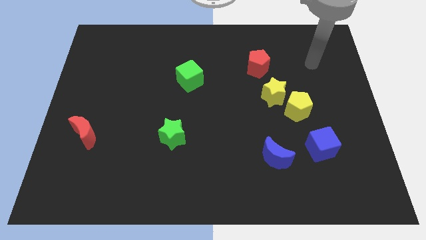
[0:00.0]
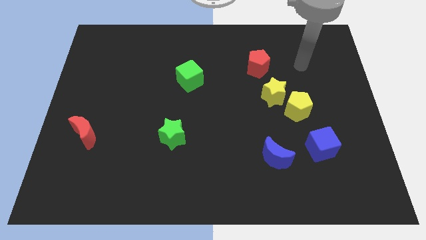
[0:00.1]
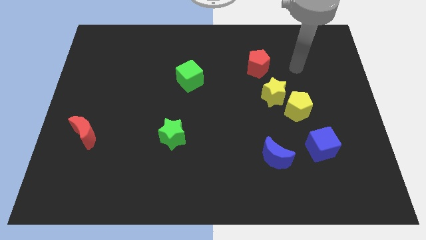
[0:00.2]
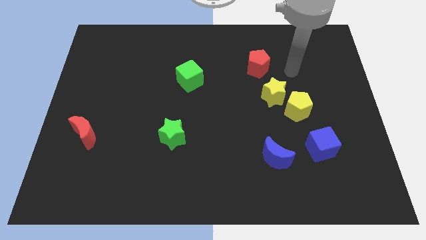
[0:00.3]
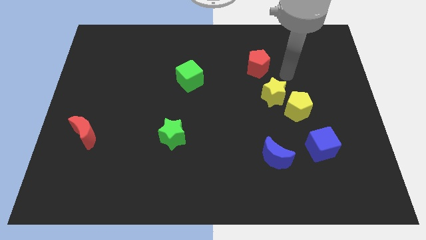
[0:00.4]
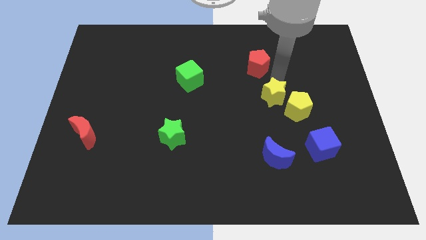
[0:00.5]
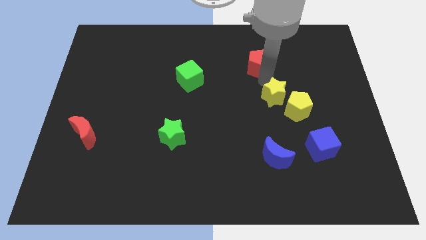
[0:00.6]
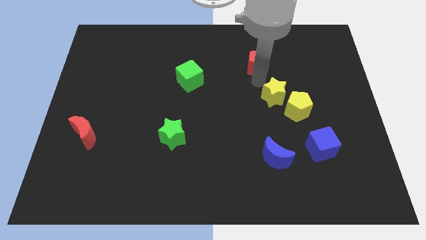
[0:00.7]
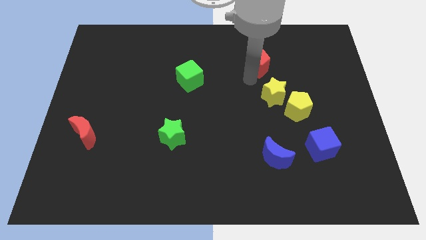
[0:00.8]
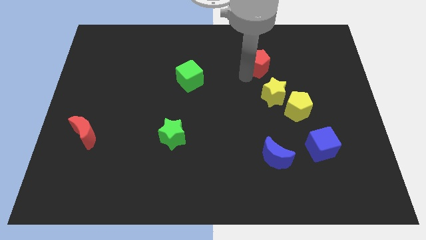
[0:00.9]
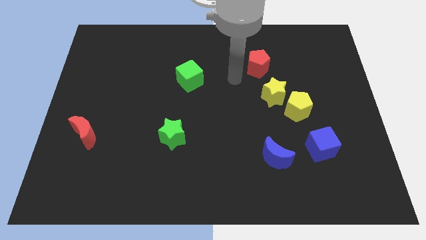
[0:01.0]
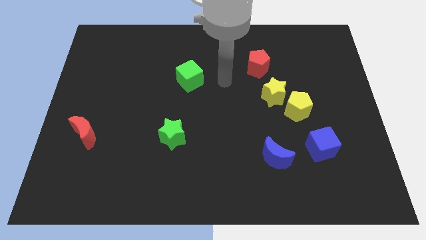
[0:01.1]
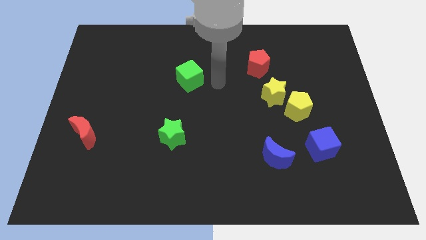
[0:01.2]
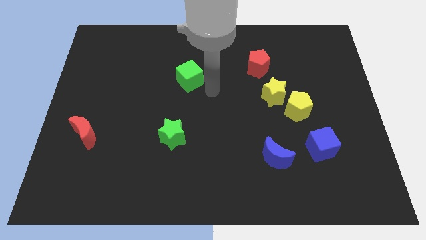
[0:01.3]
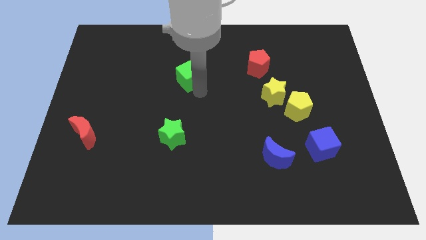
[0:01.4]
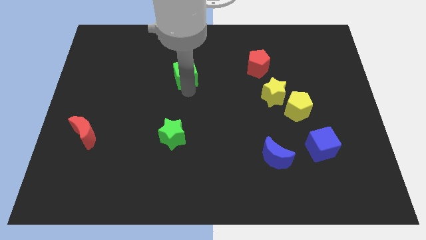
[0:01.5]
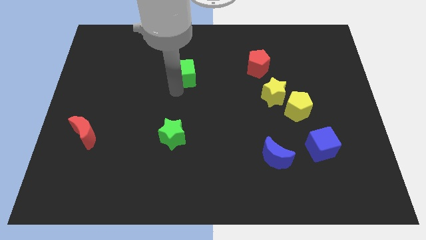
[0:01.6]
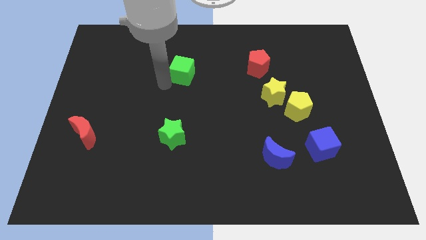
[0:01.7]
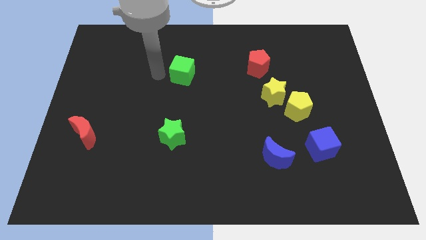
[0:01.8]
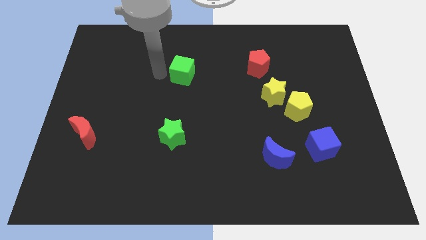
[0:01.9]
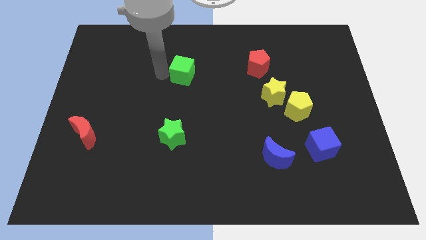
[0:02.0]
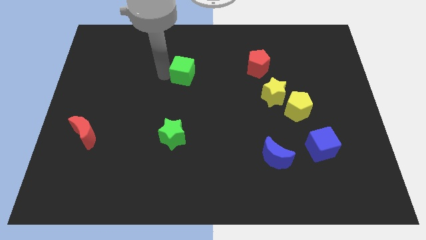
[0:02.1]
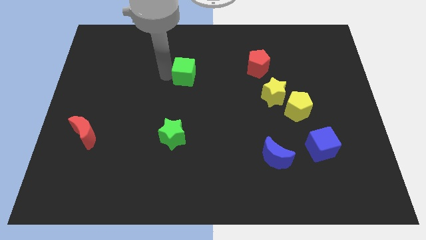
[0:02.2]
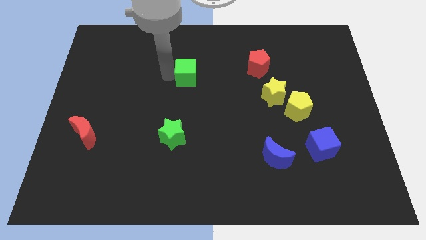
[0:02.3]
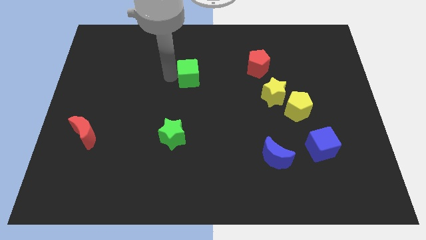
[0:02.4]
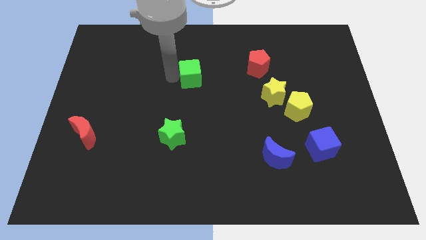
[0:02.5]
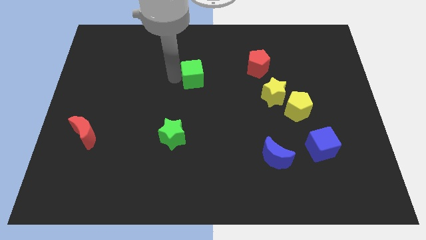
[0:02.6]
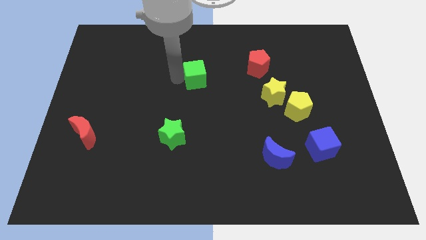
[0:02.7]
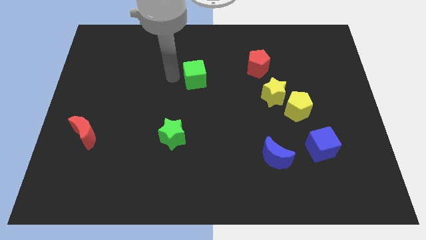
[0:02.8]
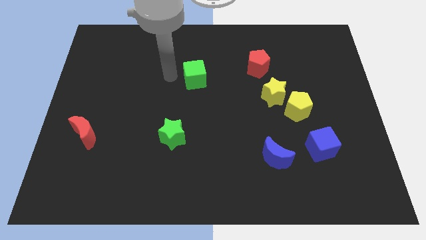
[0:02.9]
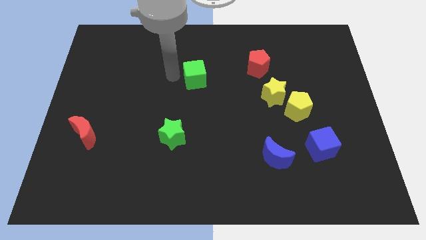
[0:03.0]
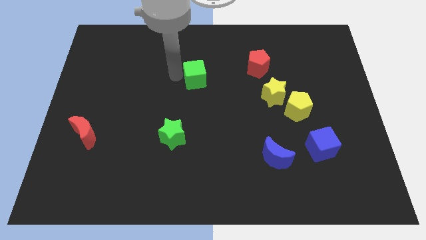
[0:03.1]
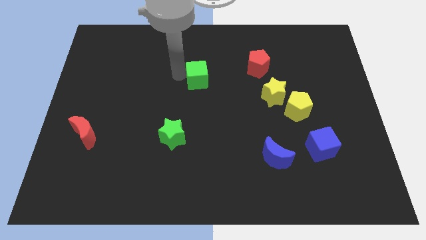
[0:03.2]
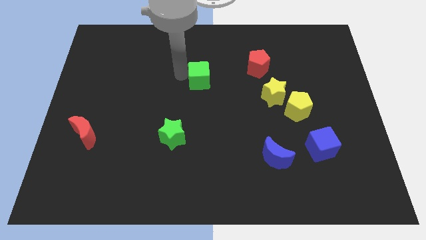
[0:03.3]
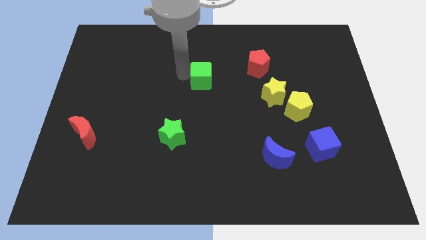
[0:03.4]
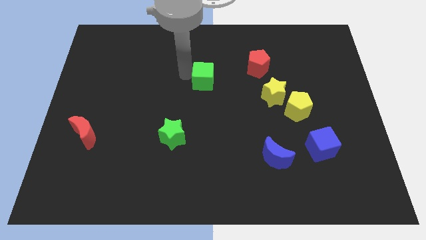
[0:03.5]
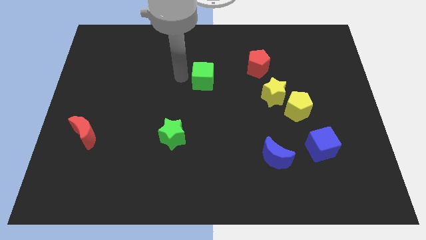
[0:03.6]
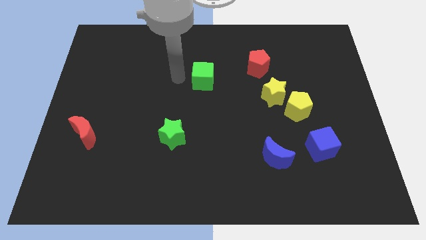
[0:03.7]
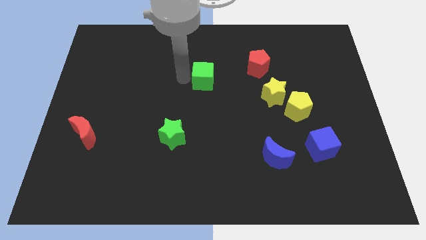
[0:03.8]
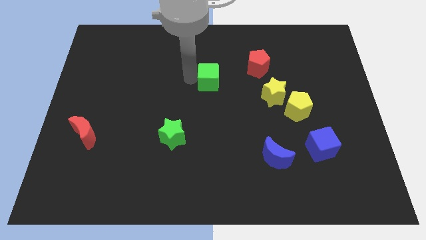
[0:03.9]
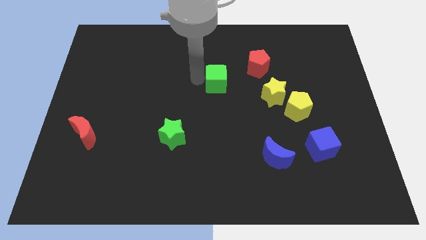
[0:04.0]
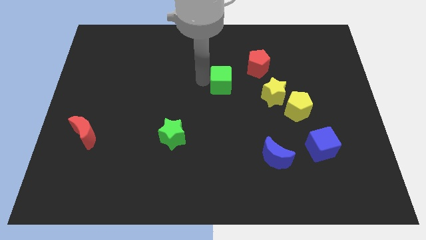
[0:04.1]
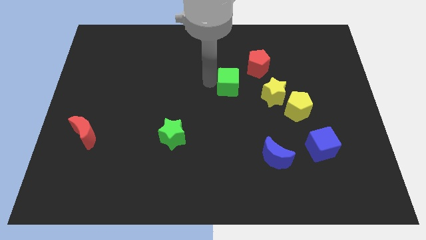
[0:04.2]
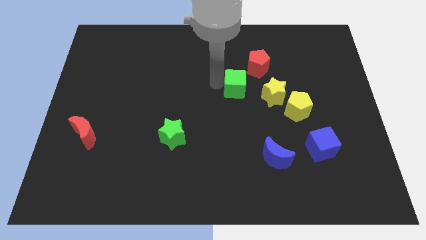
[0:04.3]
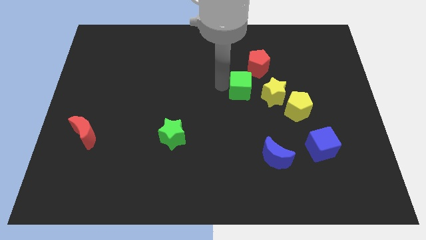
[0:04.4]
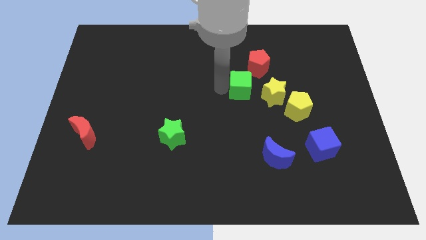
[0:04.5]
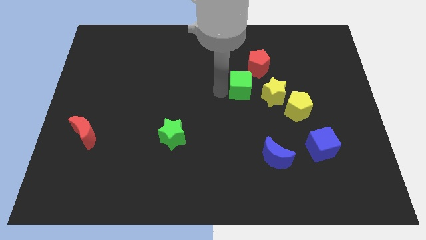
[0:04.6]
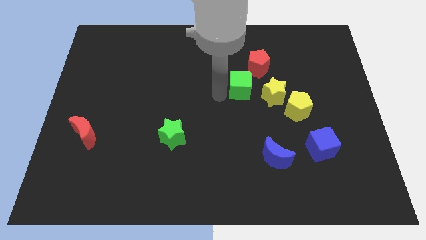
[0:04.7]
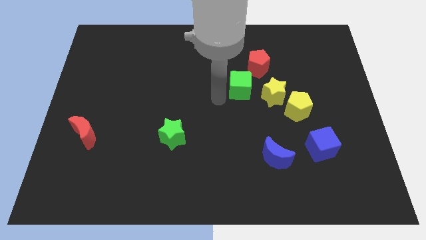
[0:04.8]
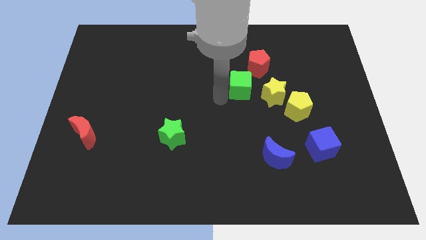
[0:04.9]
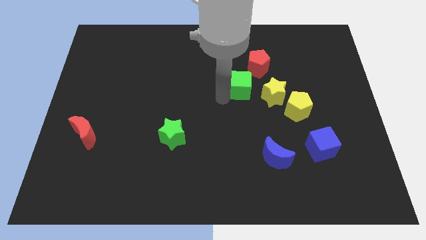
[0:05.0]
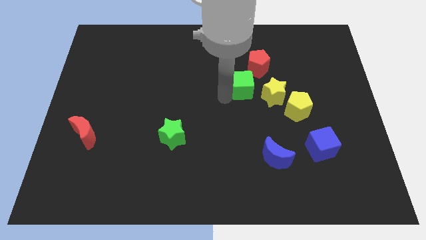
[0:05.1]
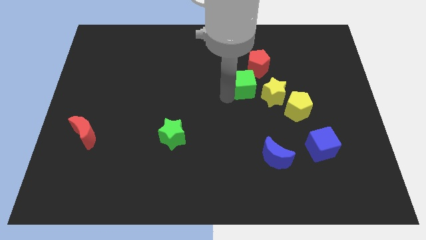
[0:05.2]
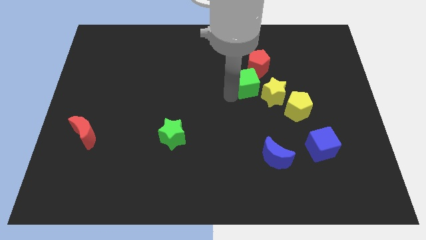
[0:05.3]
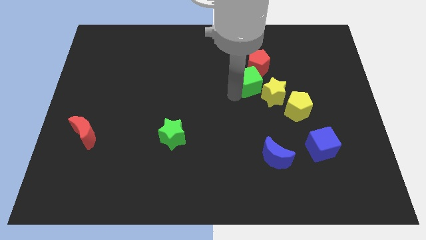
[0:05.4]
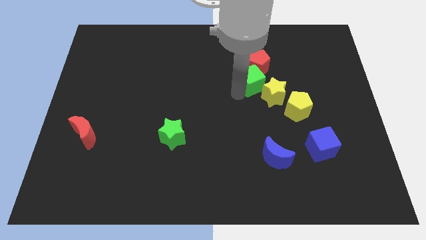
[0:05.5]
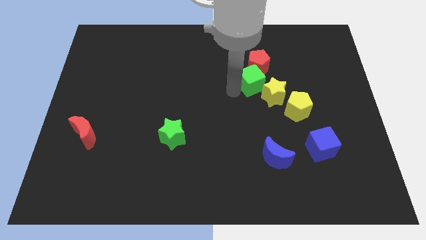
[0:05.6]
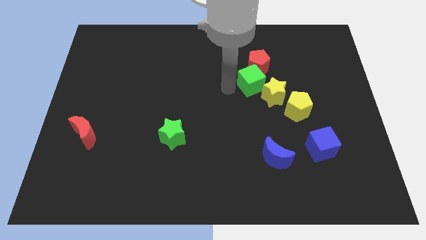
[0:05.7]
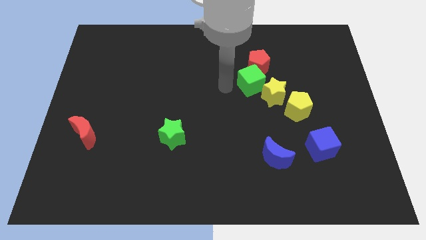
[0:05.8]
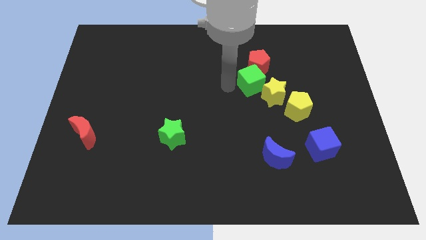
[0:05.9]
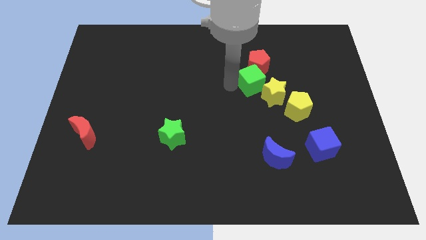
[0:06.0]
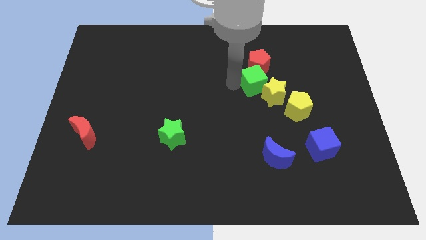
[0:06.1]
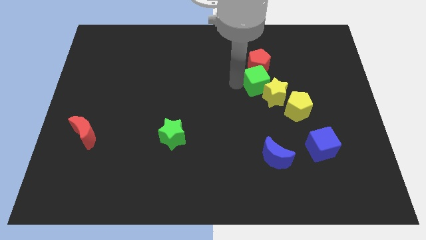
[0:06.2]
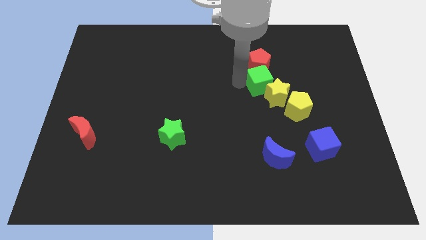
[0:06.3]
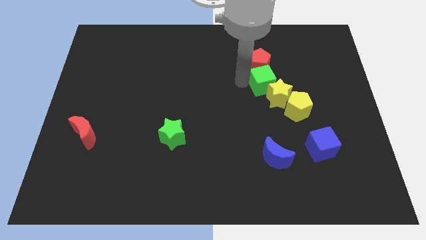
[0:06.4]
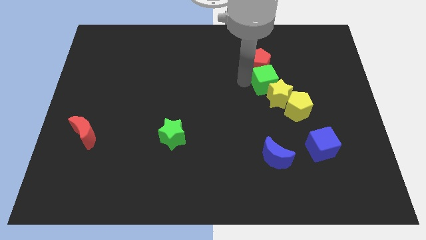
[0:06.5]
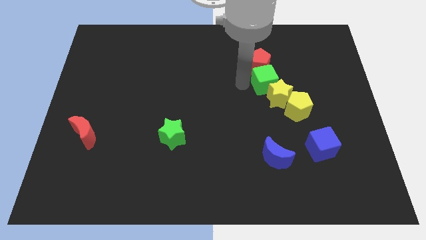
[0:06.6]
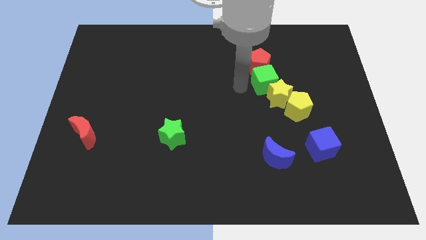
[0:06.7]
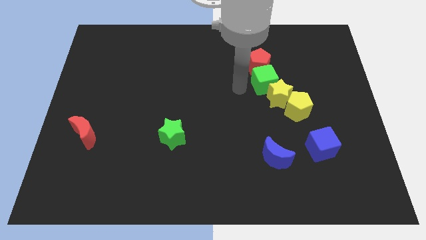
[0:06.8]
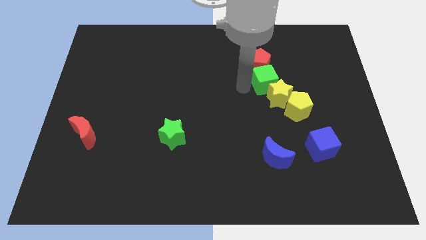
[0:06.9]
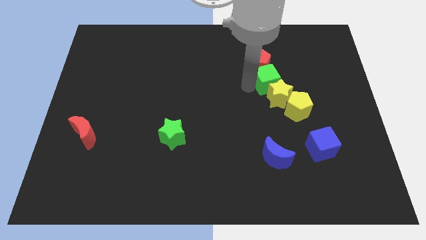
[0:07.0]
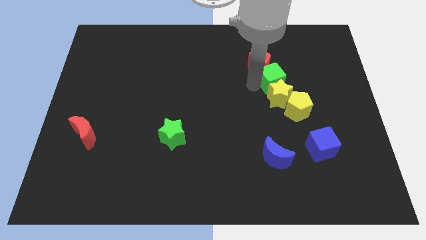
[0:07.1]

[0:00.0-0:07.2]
push the green cube right

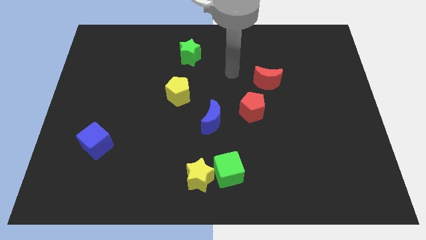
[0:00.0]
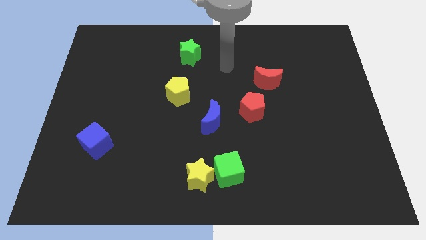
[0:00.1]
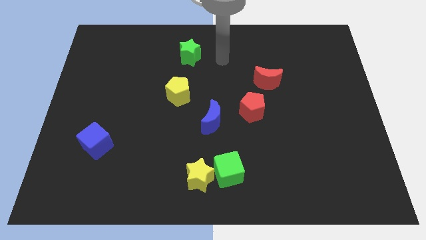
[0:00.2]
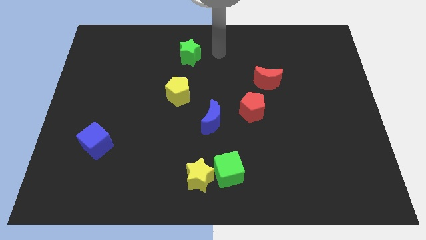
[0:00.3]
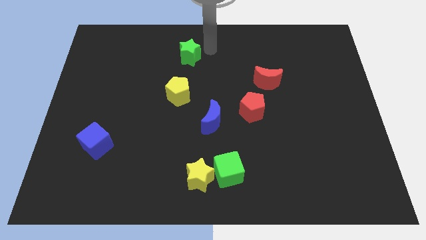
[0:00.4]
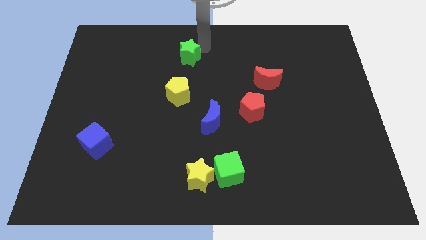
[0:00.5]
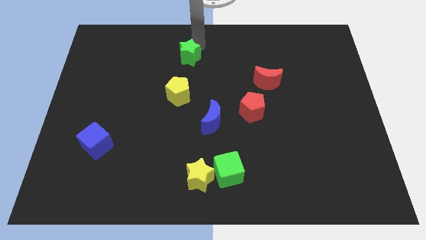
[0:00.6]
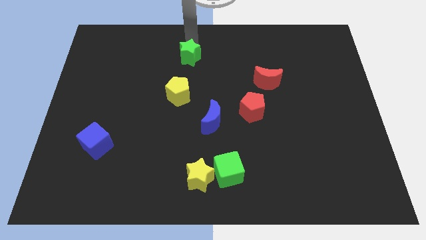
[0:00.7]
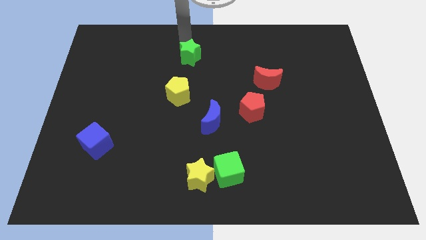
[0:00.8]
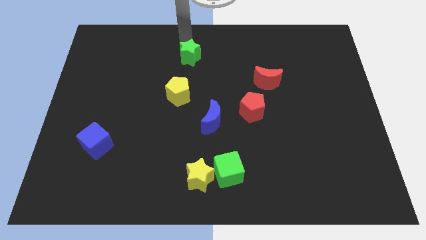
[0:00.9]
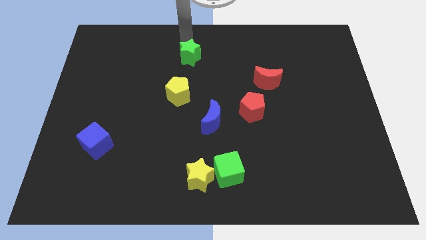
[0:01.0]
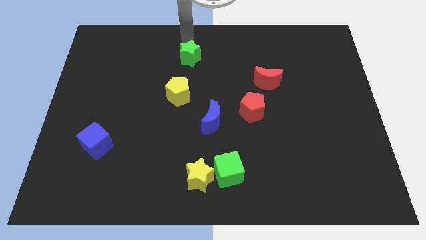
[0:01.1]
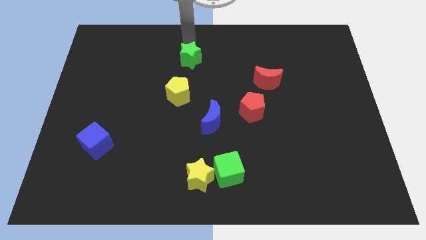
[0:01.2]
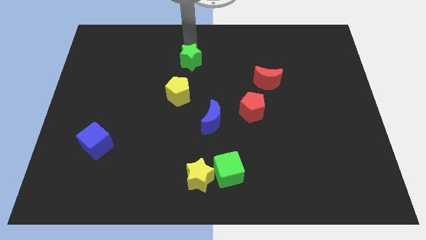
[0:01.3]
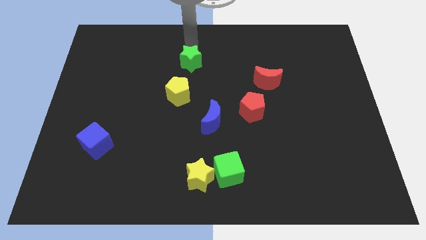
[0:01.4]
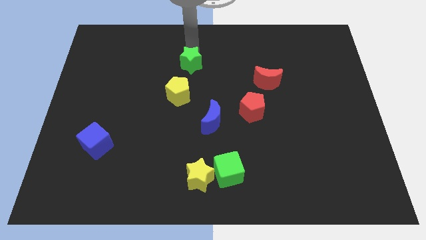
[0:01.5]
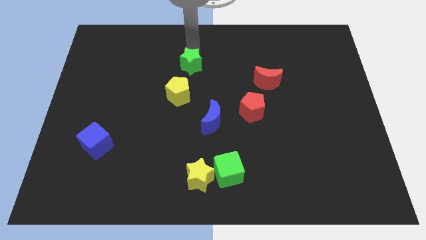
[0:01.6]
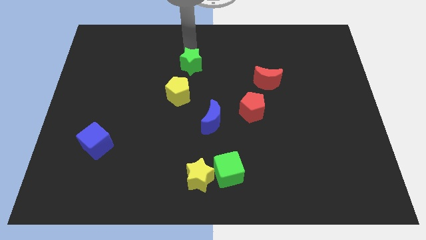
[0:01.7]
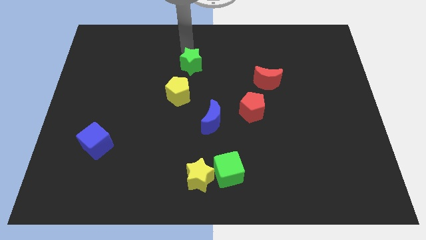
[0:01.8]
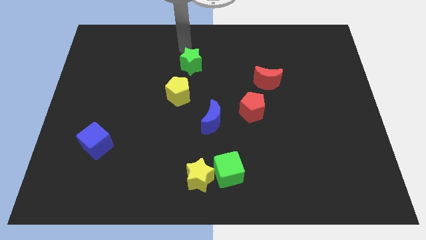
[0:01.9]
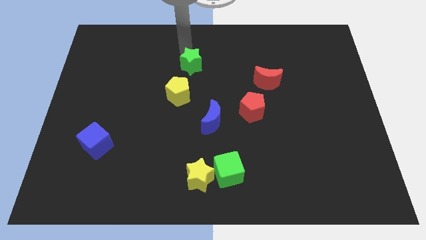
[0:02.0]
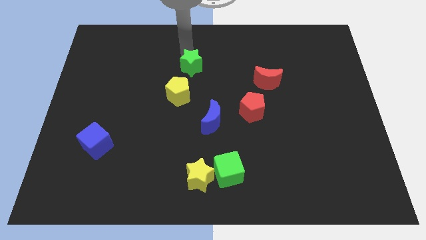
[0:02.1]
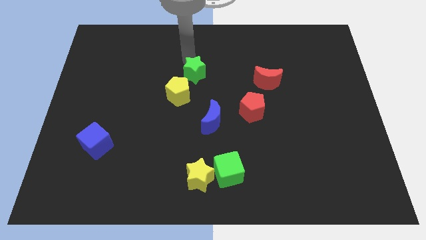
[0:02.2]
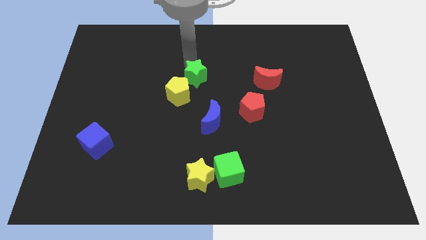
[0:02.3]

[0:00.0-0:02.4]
slide the green star a little downwards
